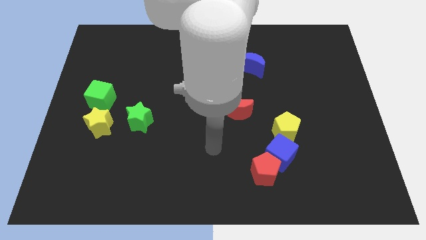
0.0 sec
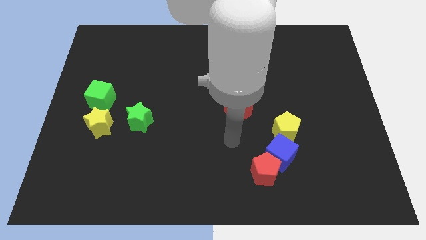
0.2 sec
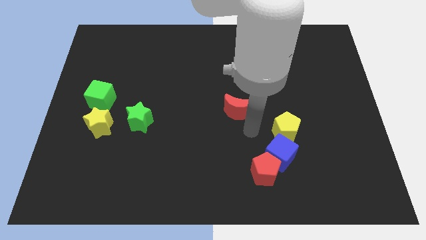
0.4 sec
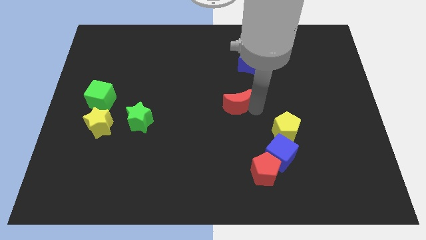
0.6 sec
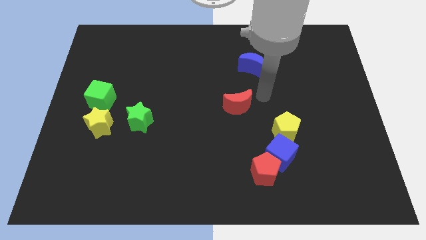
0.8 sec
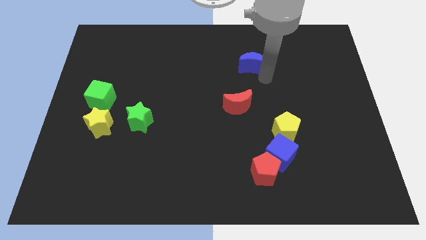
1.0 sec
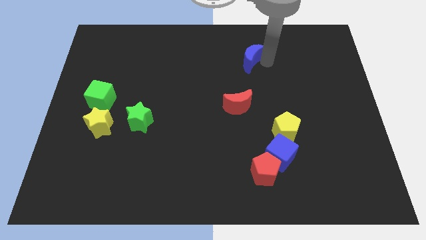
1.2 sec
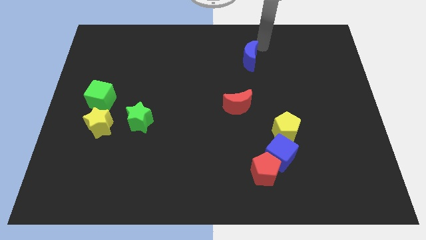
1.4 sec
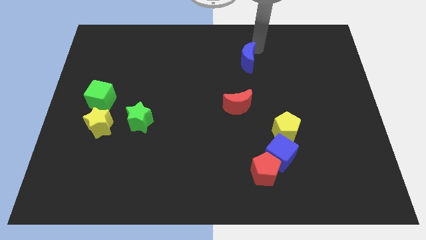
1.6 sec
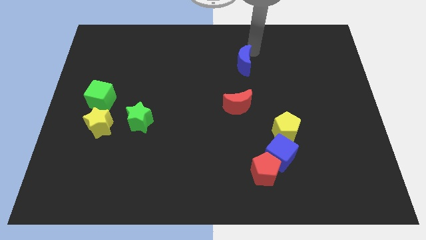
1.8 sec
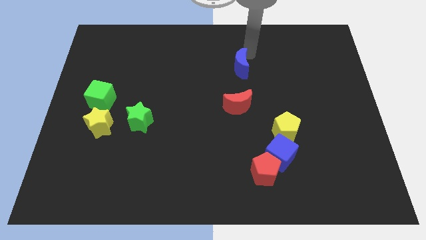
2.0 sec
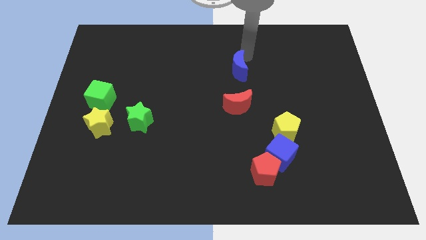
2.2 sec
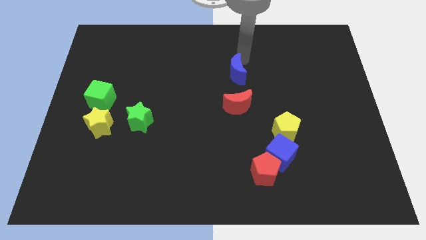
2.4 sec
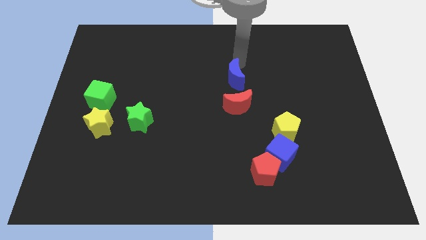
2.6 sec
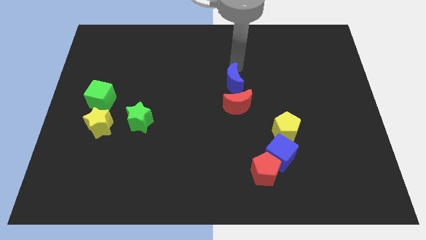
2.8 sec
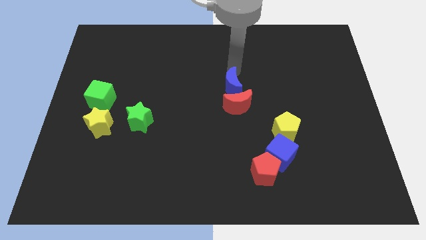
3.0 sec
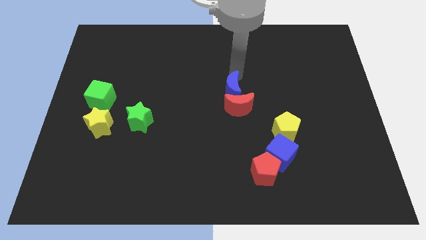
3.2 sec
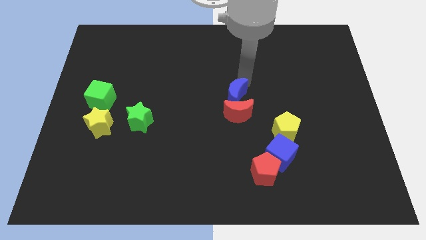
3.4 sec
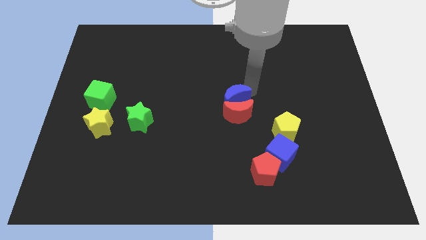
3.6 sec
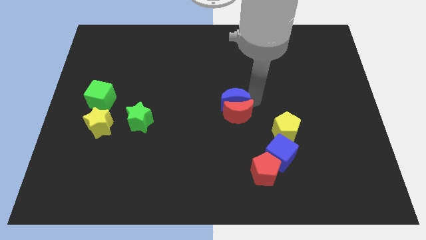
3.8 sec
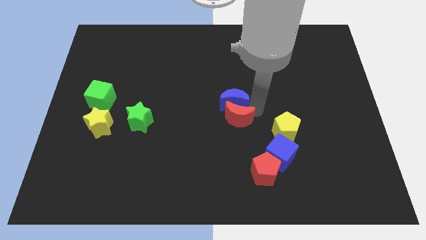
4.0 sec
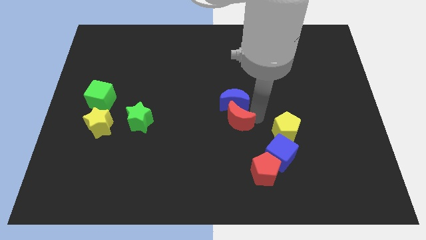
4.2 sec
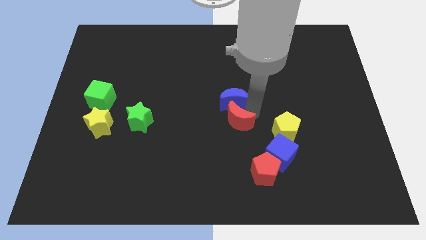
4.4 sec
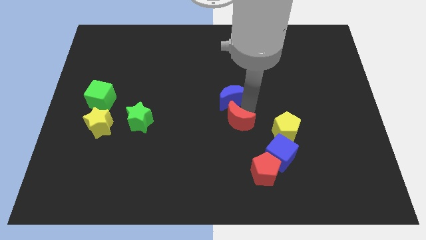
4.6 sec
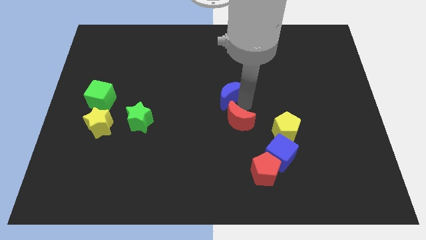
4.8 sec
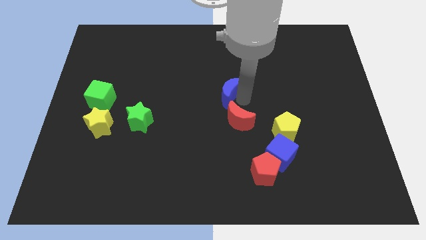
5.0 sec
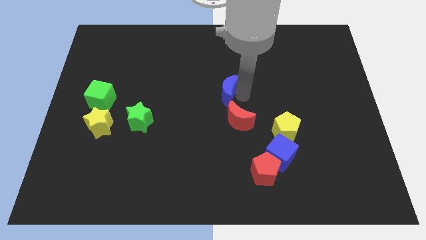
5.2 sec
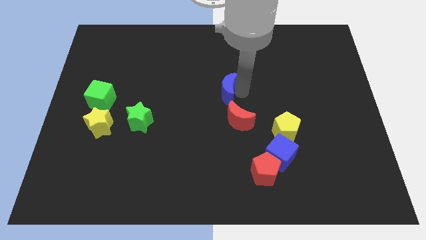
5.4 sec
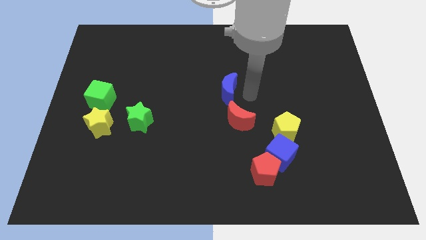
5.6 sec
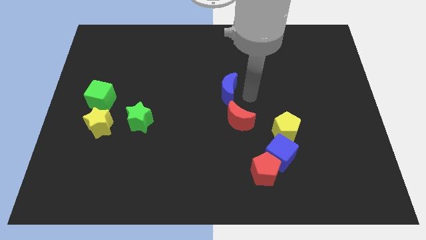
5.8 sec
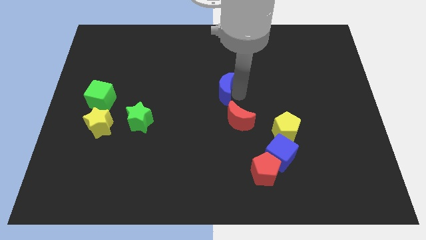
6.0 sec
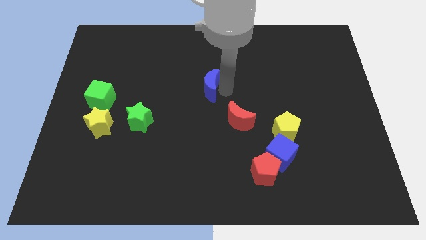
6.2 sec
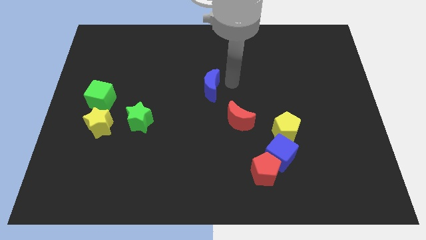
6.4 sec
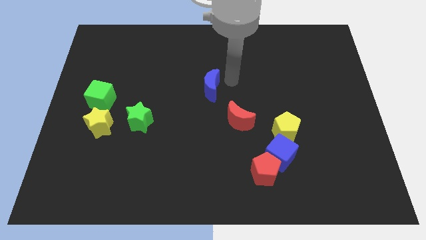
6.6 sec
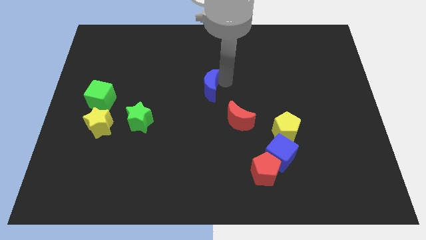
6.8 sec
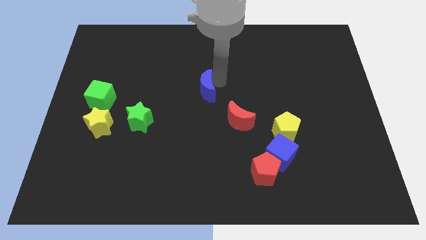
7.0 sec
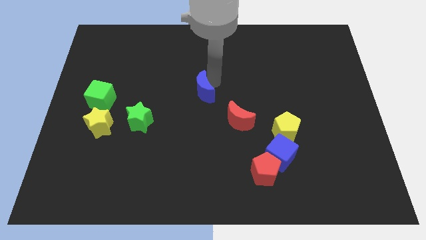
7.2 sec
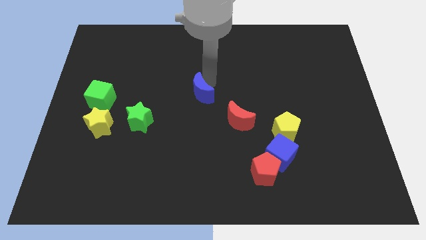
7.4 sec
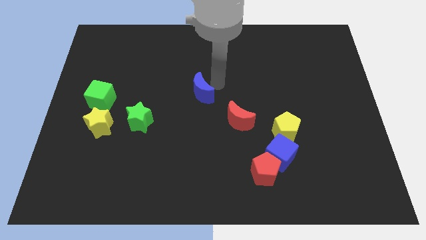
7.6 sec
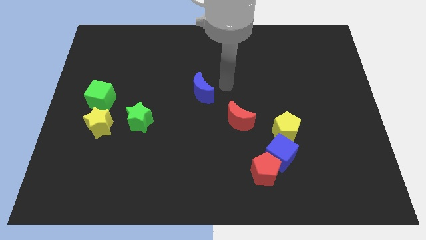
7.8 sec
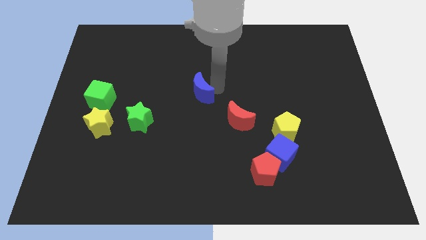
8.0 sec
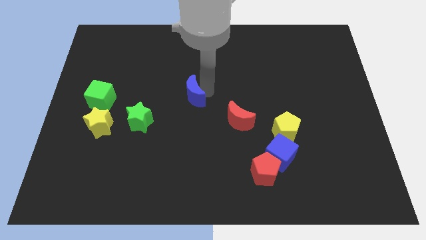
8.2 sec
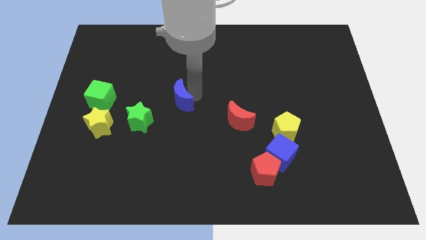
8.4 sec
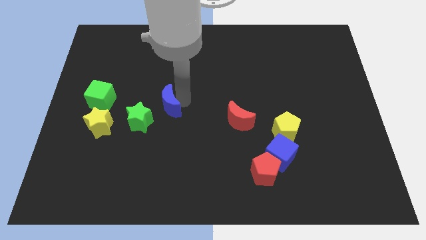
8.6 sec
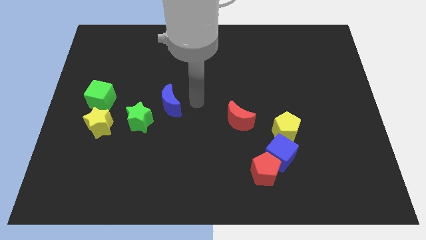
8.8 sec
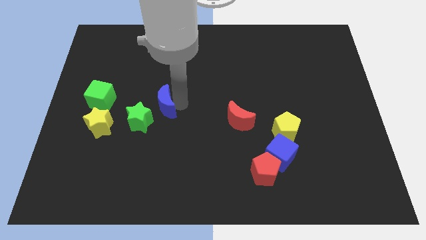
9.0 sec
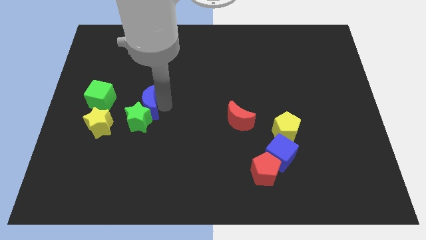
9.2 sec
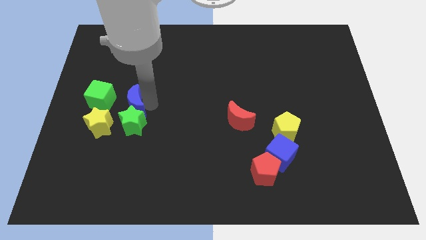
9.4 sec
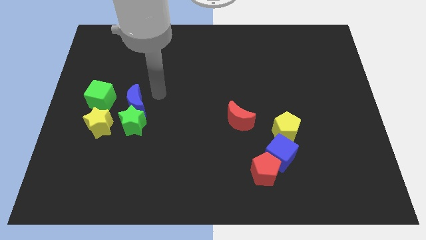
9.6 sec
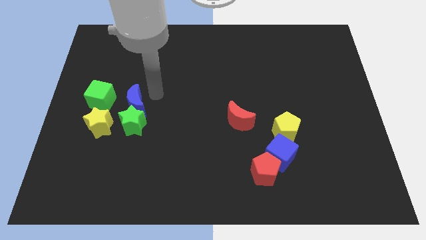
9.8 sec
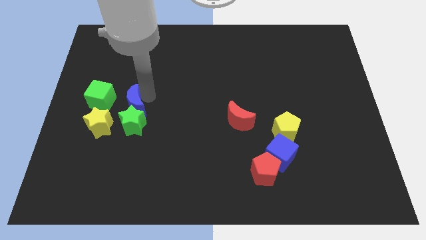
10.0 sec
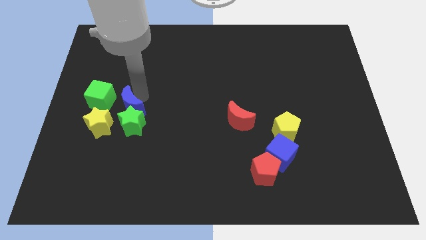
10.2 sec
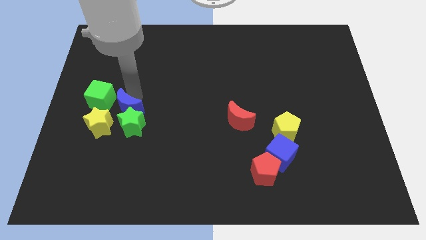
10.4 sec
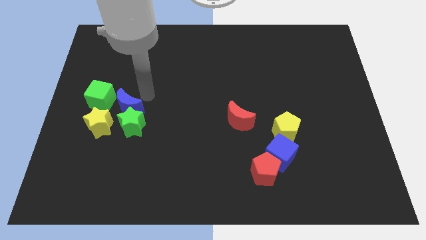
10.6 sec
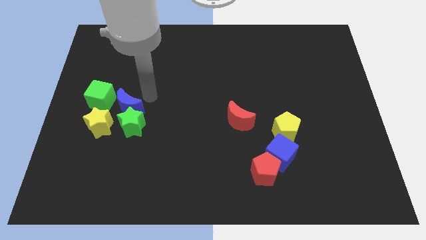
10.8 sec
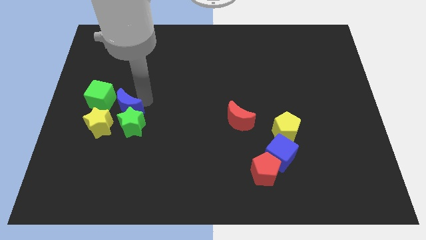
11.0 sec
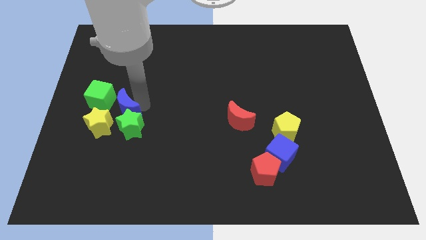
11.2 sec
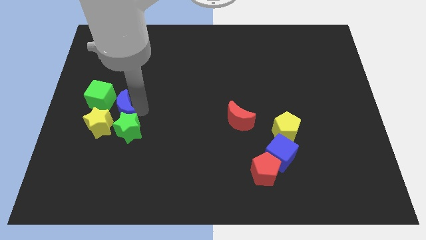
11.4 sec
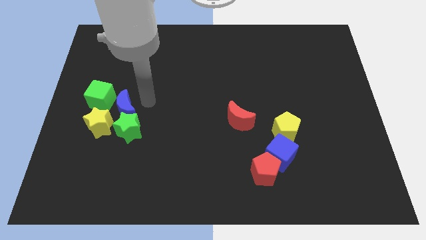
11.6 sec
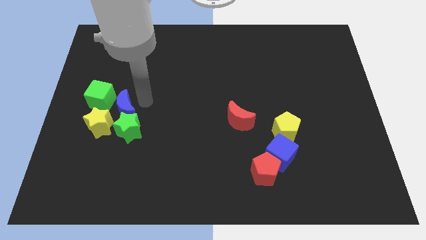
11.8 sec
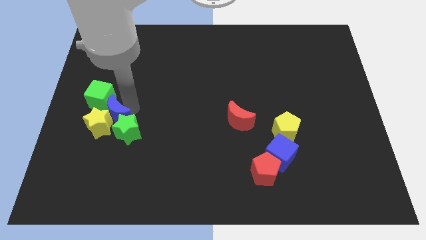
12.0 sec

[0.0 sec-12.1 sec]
put the blue moon to the yellow star
